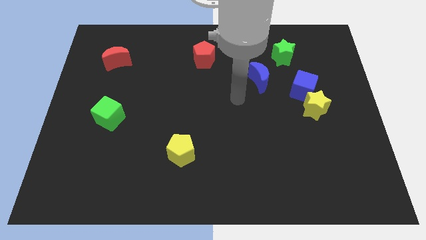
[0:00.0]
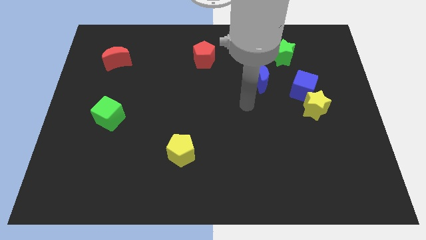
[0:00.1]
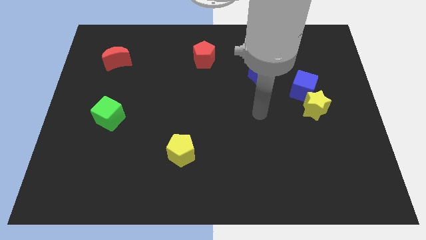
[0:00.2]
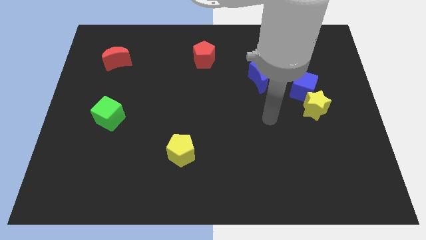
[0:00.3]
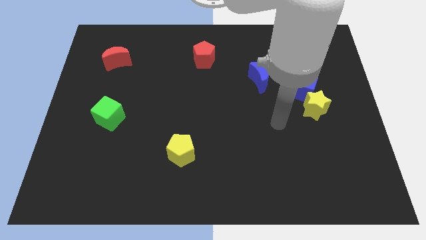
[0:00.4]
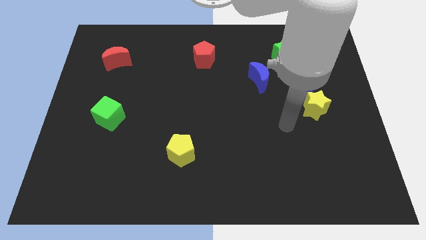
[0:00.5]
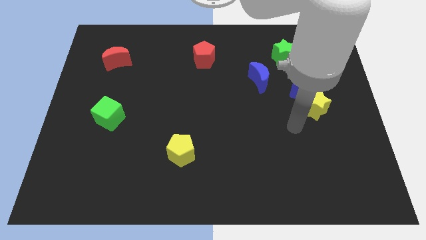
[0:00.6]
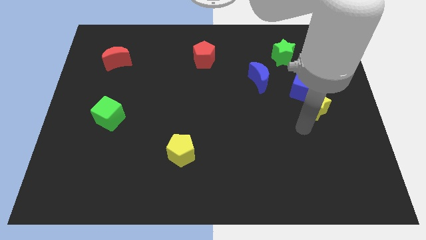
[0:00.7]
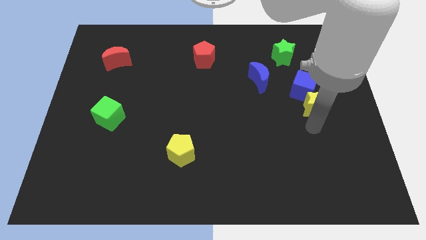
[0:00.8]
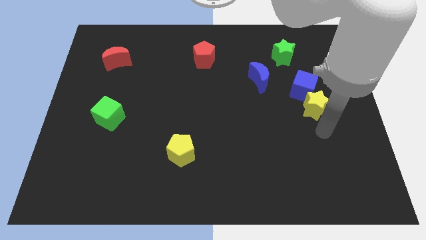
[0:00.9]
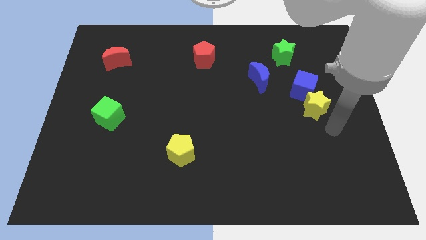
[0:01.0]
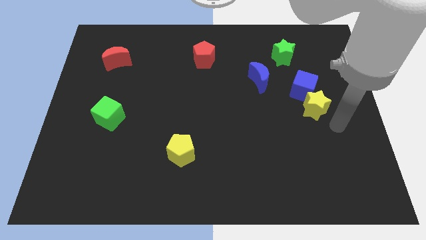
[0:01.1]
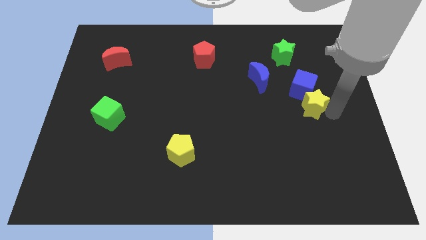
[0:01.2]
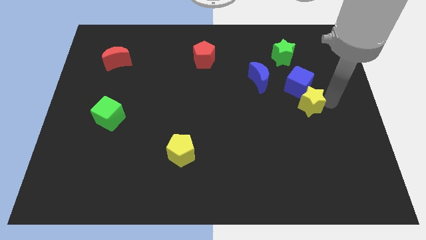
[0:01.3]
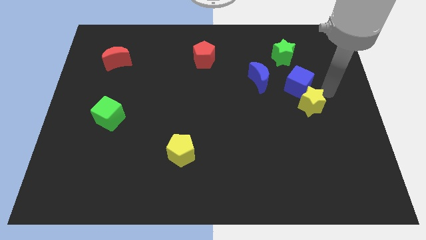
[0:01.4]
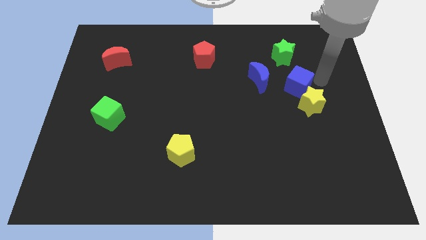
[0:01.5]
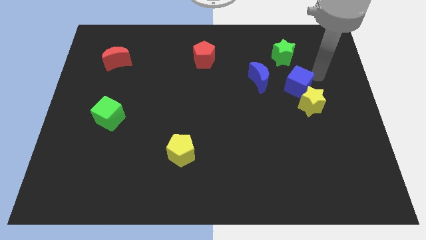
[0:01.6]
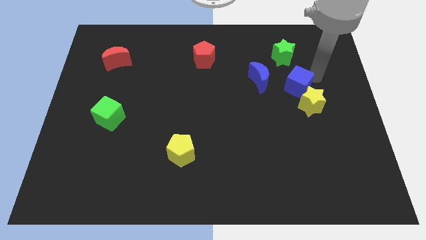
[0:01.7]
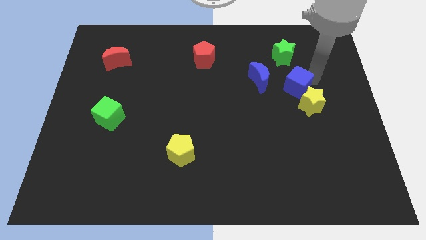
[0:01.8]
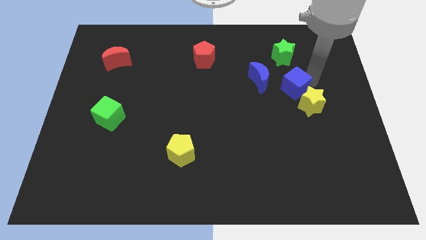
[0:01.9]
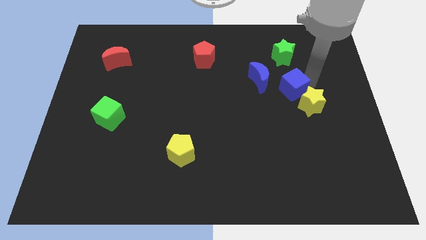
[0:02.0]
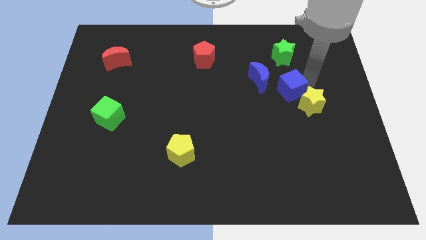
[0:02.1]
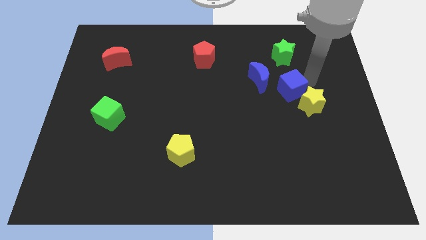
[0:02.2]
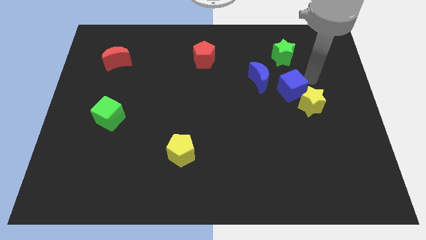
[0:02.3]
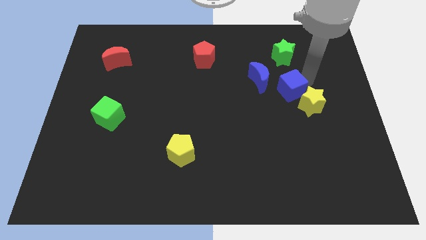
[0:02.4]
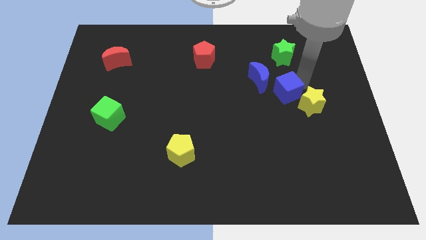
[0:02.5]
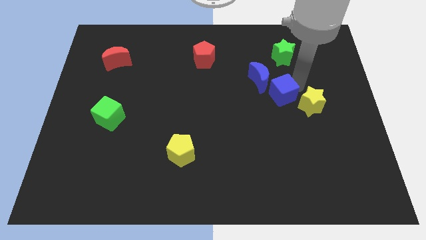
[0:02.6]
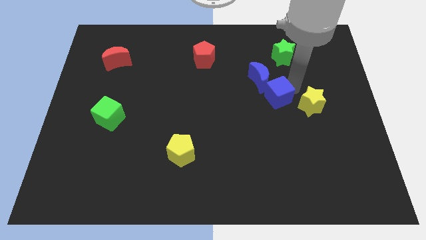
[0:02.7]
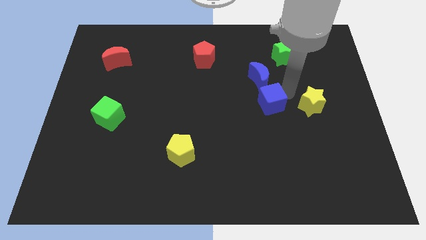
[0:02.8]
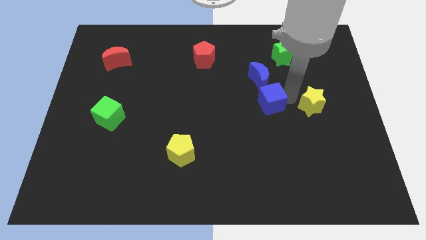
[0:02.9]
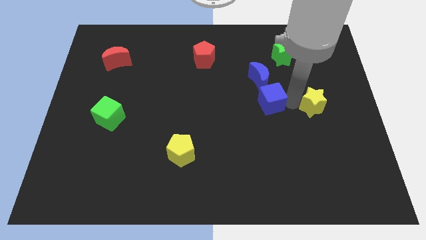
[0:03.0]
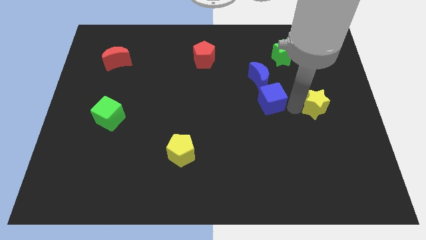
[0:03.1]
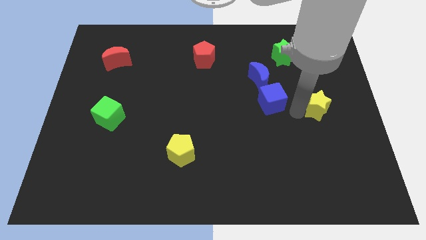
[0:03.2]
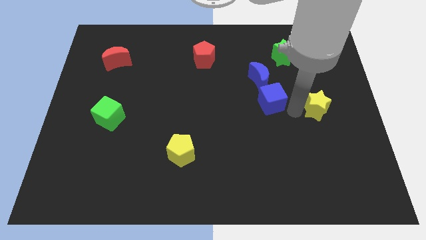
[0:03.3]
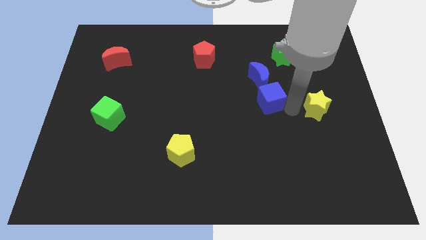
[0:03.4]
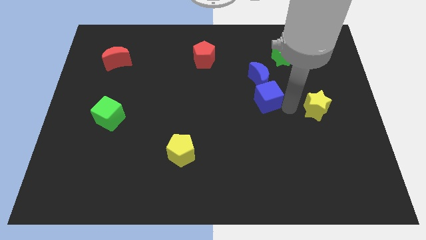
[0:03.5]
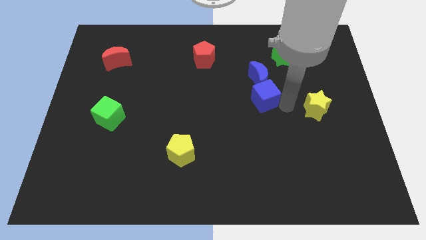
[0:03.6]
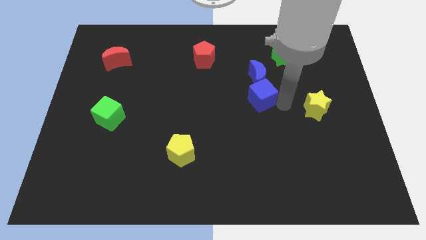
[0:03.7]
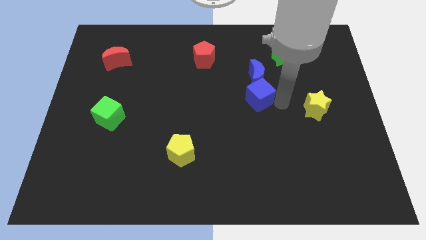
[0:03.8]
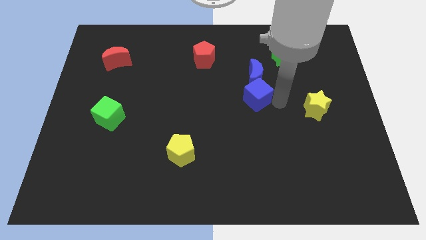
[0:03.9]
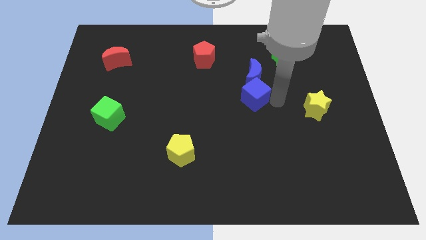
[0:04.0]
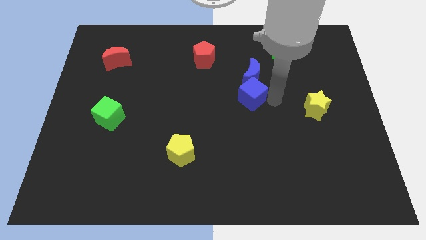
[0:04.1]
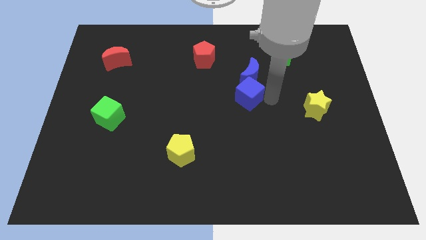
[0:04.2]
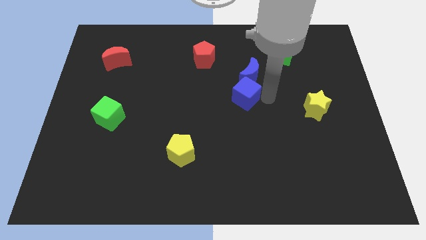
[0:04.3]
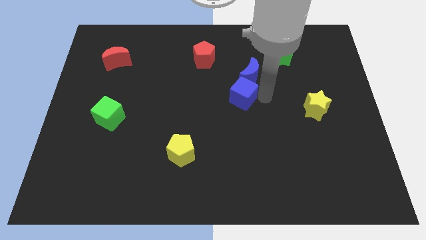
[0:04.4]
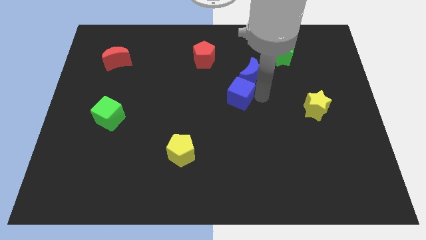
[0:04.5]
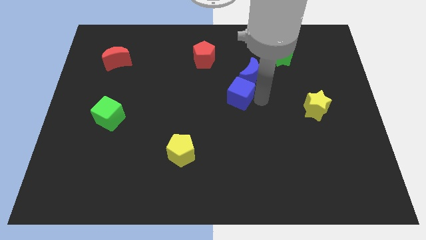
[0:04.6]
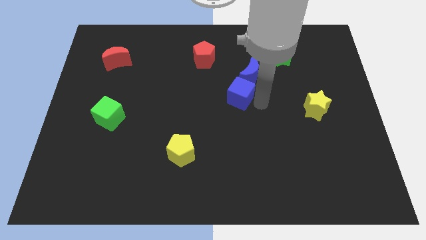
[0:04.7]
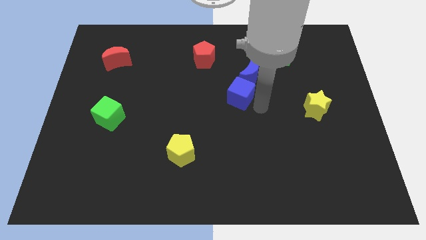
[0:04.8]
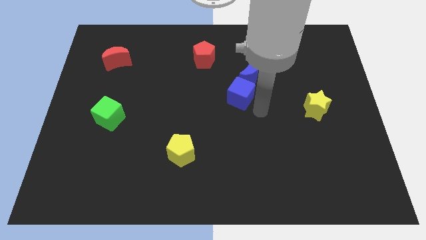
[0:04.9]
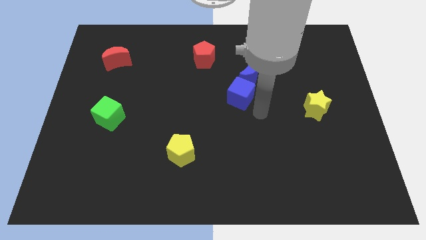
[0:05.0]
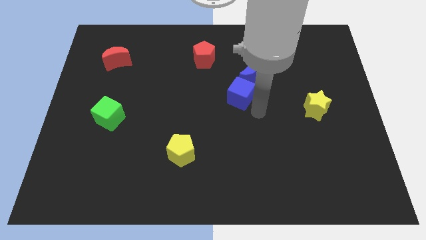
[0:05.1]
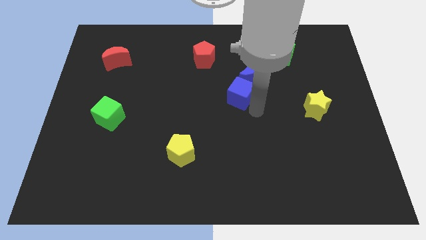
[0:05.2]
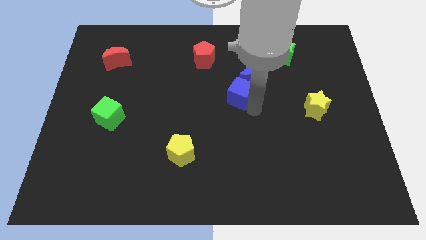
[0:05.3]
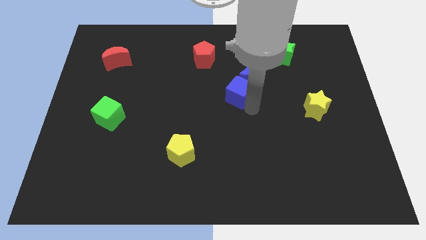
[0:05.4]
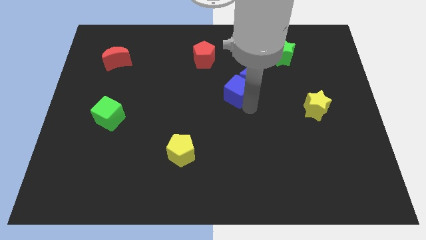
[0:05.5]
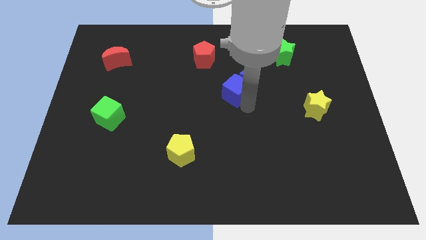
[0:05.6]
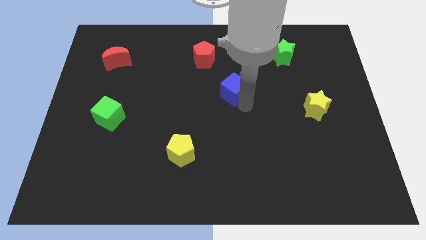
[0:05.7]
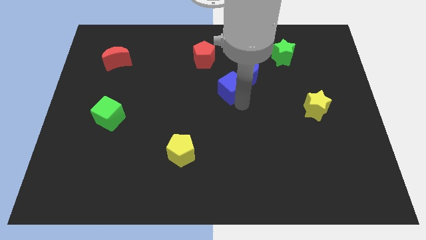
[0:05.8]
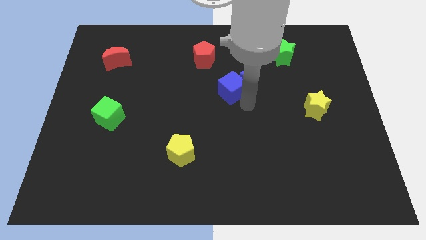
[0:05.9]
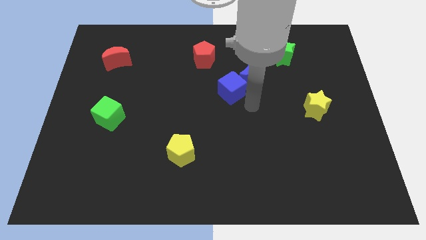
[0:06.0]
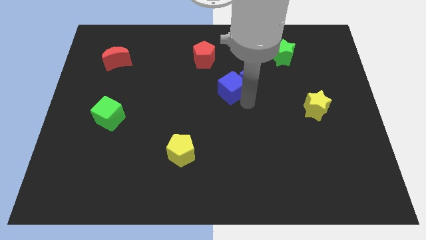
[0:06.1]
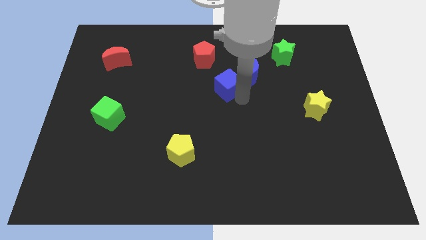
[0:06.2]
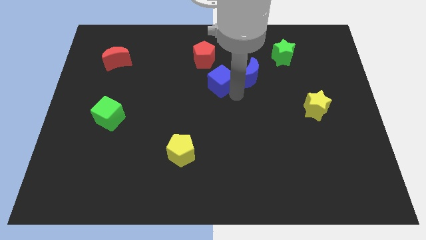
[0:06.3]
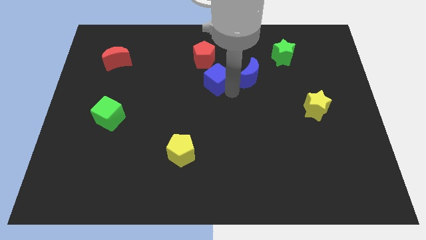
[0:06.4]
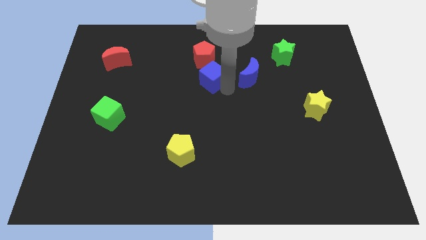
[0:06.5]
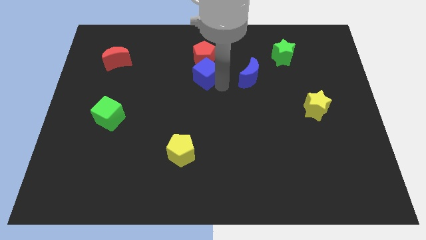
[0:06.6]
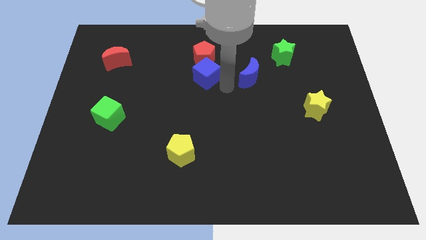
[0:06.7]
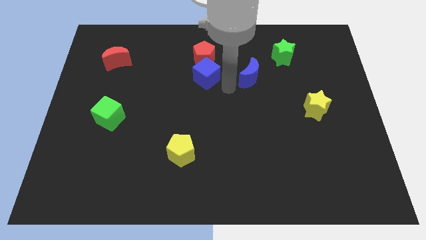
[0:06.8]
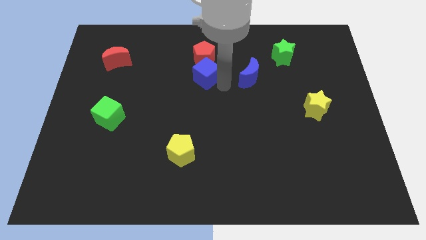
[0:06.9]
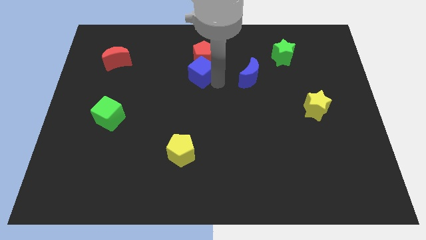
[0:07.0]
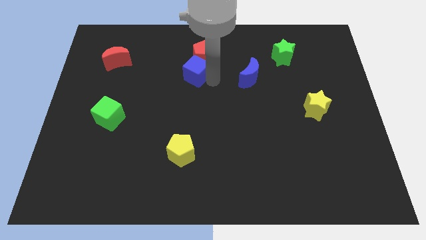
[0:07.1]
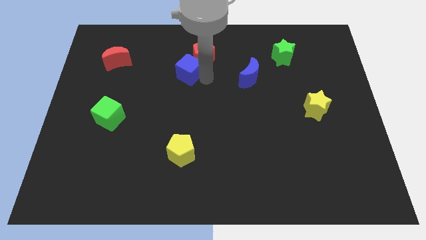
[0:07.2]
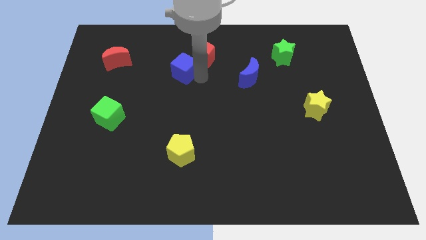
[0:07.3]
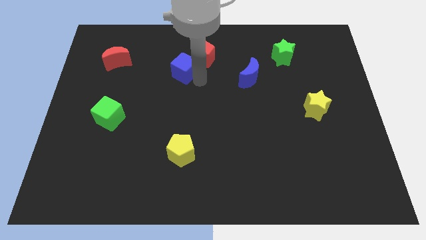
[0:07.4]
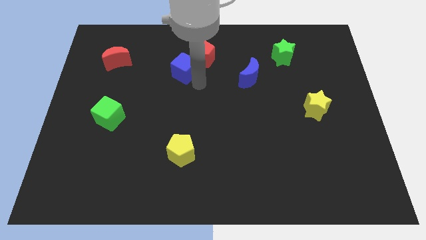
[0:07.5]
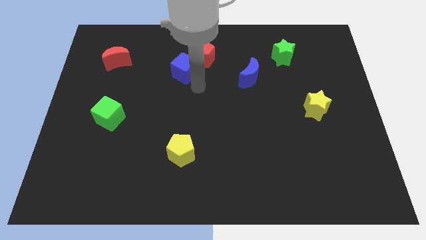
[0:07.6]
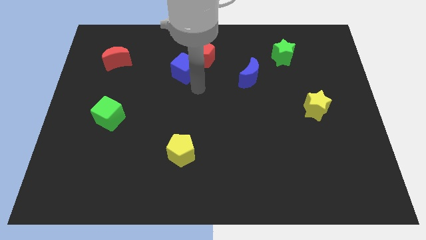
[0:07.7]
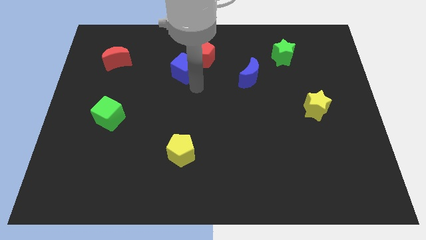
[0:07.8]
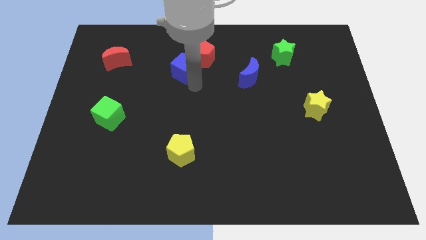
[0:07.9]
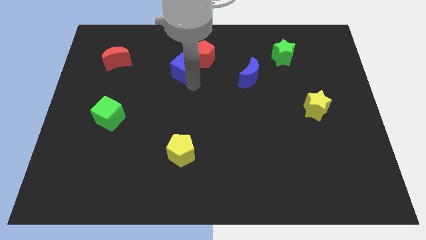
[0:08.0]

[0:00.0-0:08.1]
push the blue cube to the left side of the red pentagon
